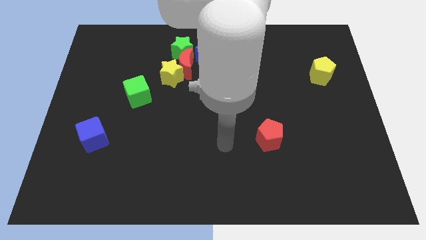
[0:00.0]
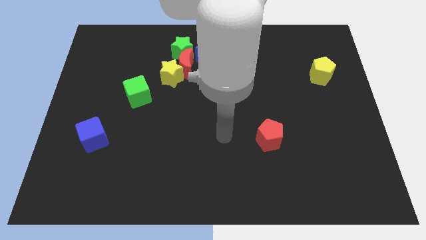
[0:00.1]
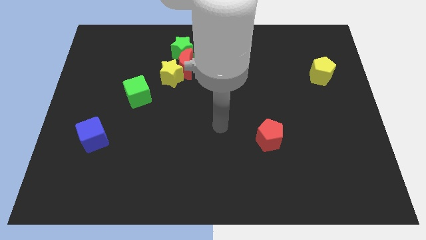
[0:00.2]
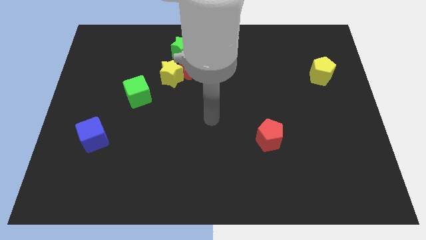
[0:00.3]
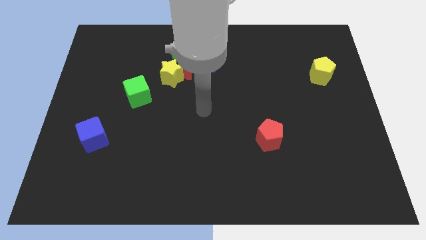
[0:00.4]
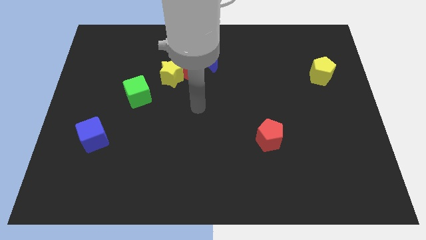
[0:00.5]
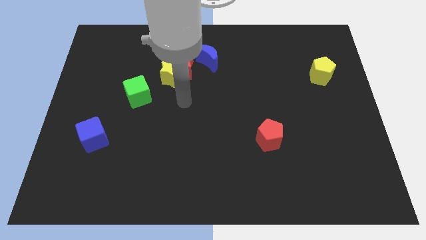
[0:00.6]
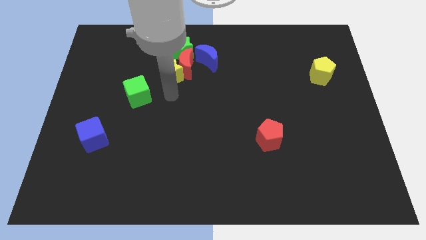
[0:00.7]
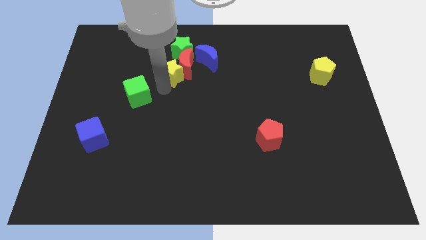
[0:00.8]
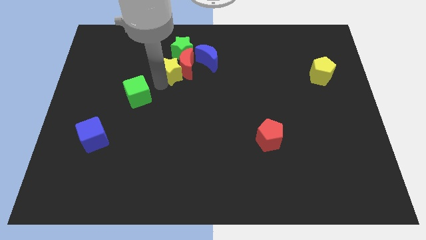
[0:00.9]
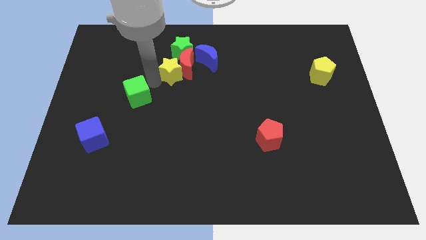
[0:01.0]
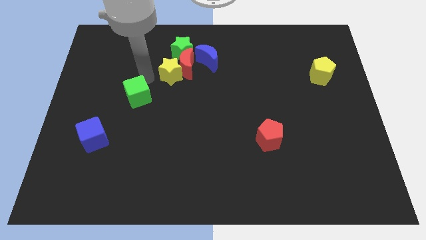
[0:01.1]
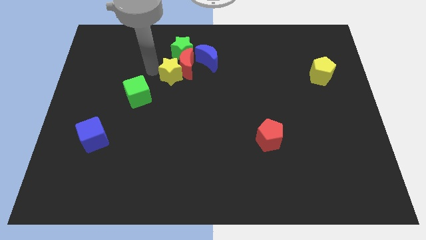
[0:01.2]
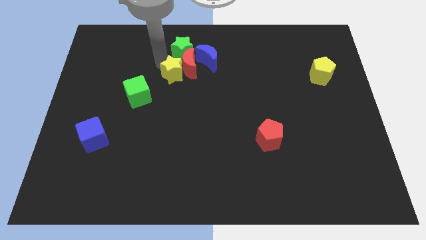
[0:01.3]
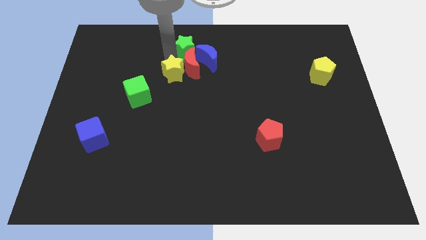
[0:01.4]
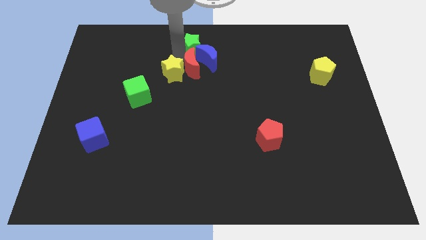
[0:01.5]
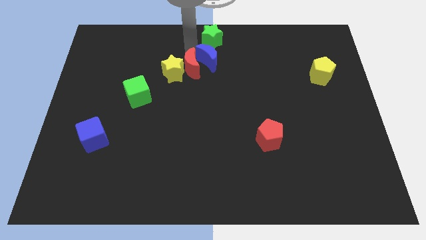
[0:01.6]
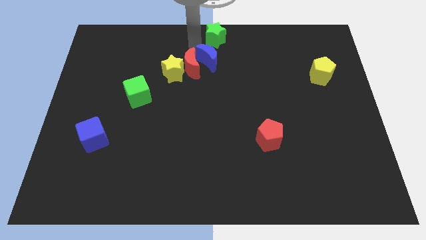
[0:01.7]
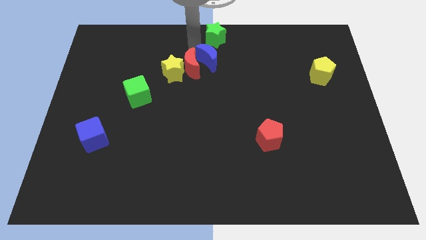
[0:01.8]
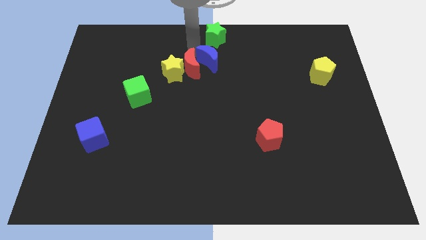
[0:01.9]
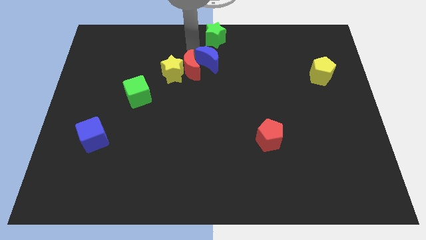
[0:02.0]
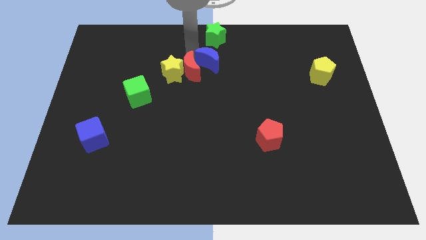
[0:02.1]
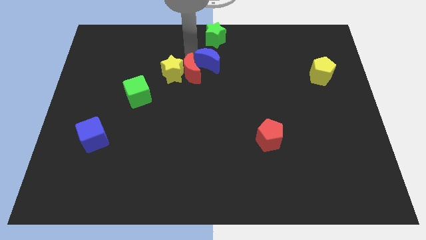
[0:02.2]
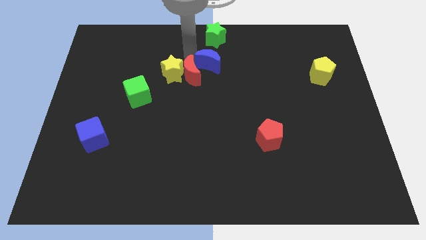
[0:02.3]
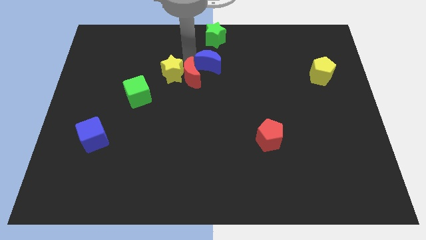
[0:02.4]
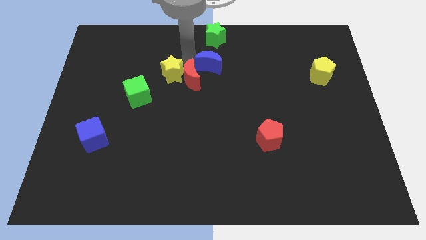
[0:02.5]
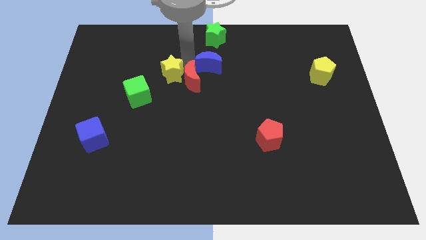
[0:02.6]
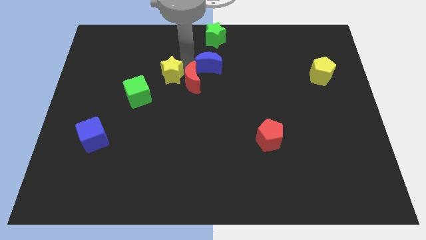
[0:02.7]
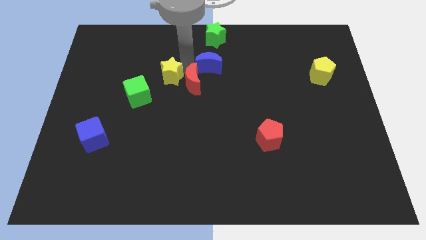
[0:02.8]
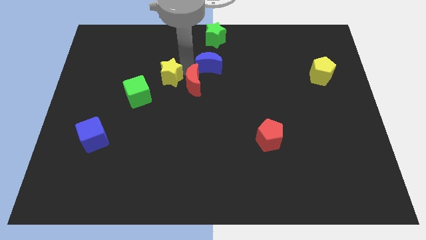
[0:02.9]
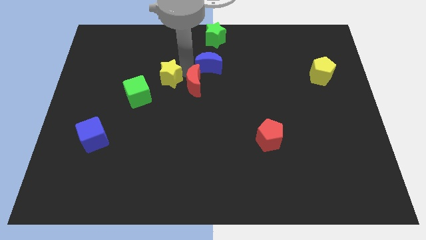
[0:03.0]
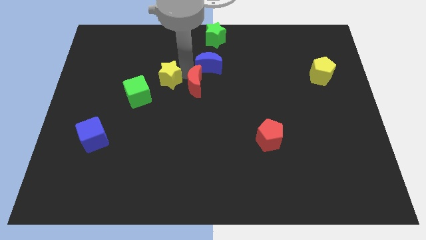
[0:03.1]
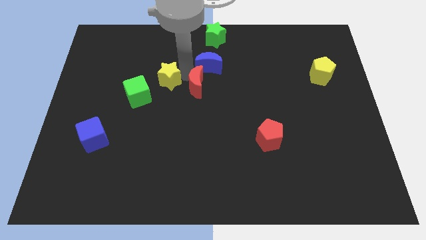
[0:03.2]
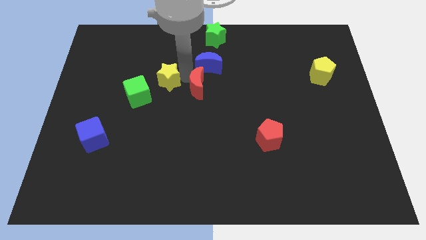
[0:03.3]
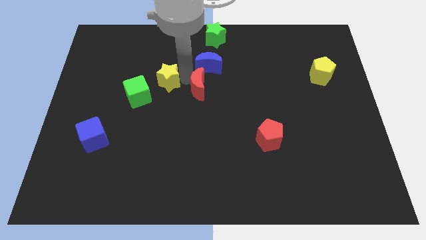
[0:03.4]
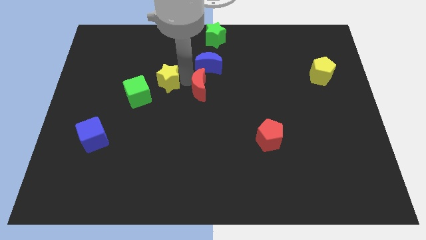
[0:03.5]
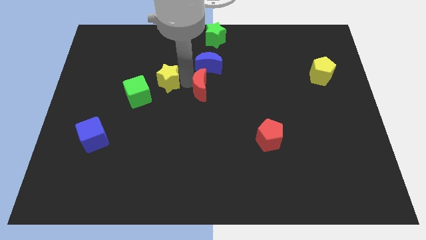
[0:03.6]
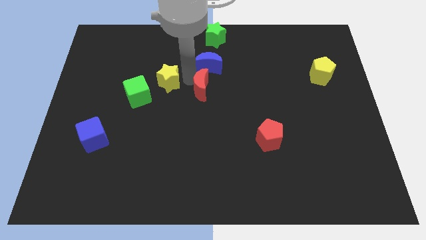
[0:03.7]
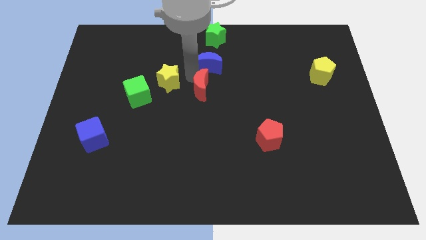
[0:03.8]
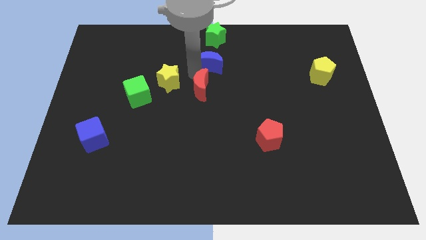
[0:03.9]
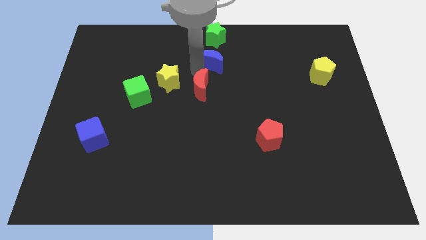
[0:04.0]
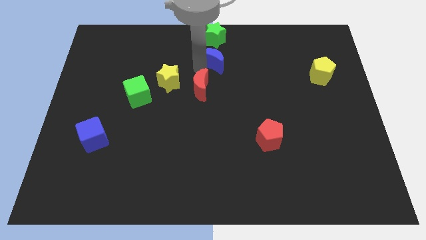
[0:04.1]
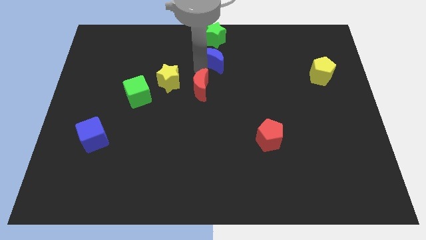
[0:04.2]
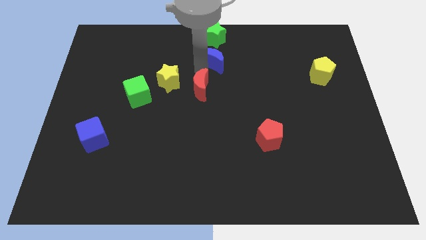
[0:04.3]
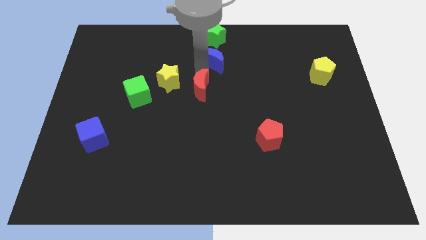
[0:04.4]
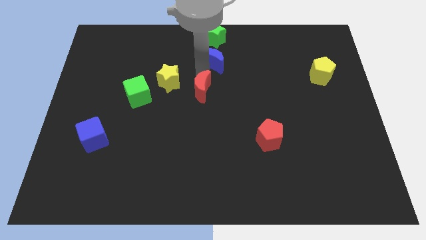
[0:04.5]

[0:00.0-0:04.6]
pull the red moon apart from the clump

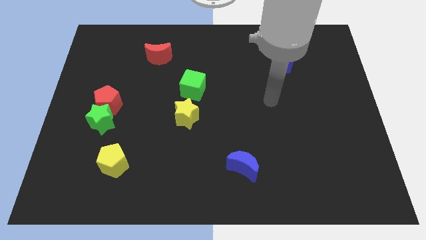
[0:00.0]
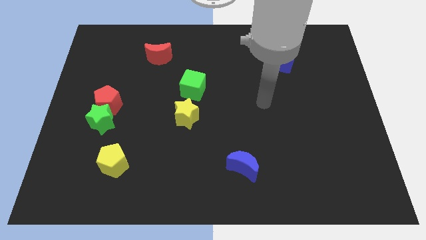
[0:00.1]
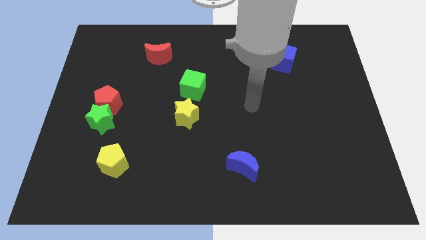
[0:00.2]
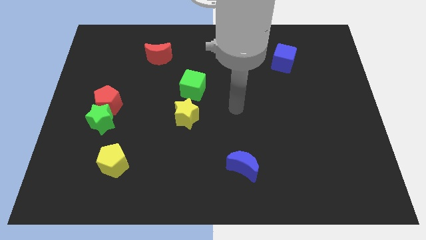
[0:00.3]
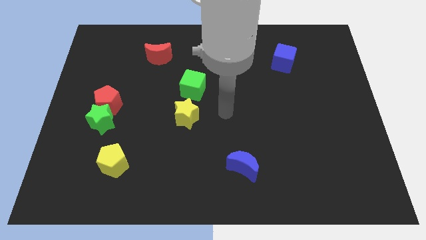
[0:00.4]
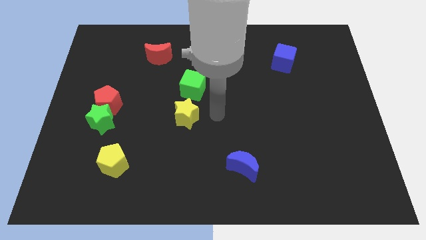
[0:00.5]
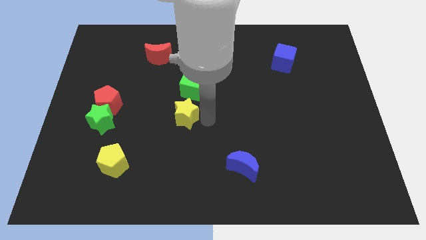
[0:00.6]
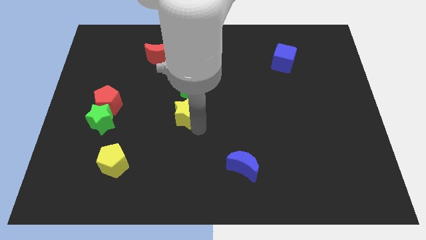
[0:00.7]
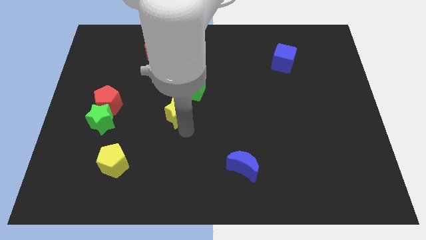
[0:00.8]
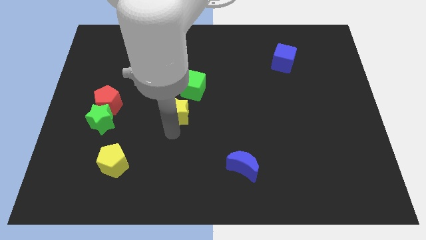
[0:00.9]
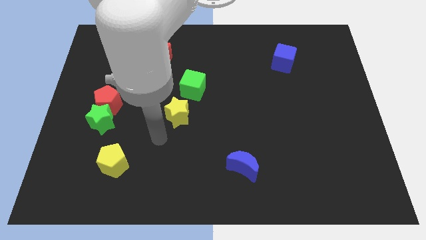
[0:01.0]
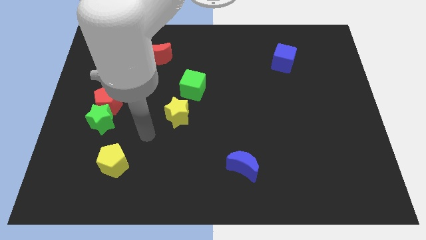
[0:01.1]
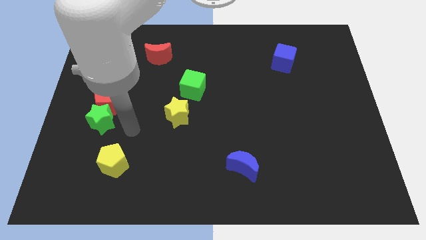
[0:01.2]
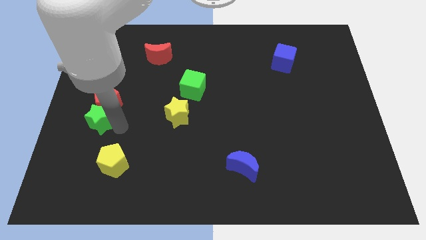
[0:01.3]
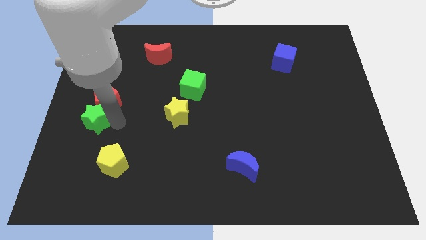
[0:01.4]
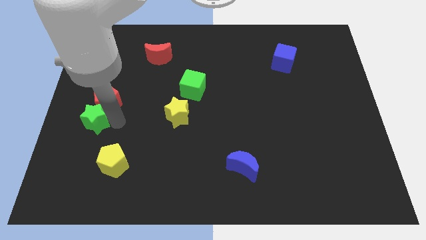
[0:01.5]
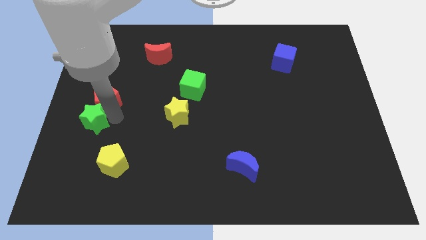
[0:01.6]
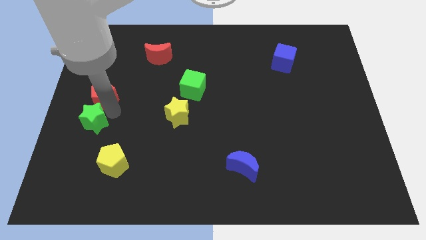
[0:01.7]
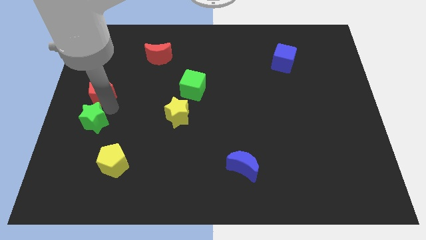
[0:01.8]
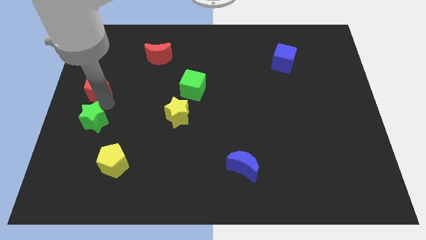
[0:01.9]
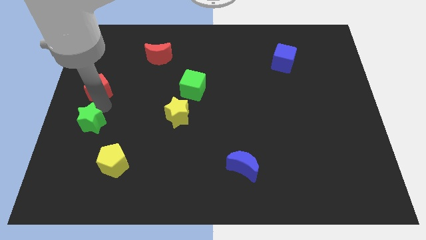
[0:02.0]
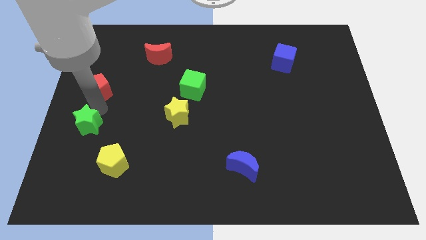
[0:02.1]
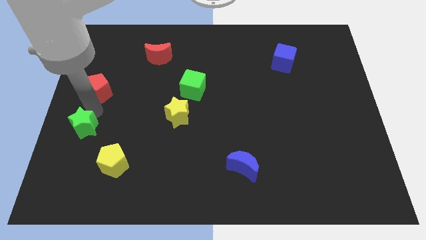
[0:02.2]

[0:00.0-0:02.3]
pull the red pentagon apart from the green star

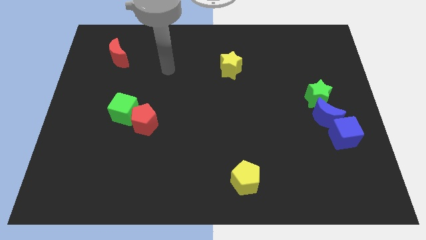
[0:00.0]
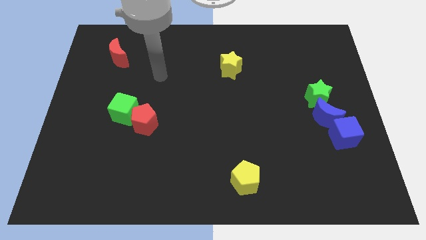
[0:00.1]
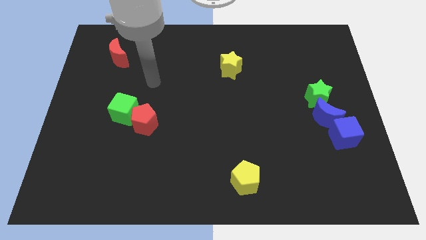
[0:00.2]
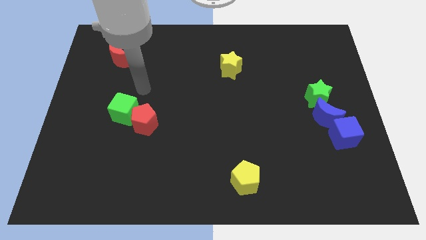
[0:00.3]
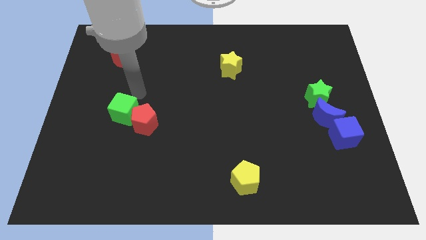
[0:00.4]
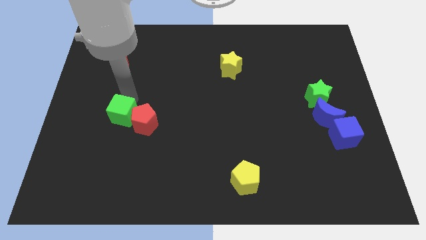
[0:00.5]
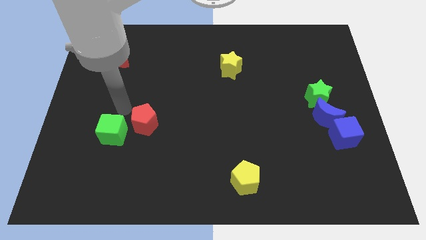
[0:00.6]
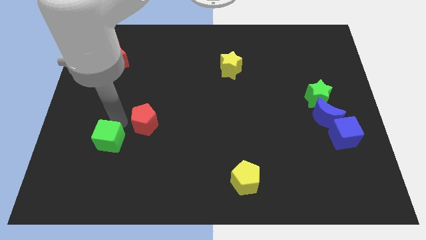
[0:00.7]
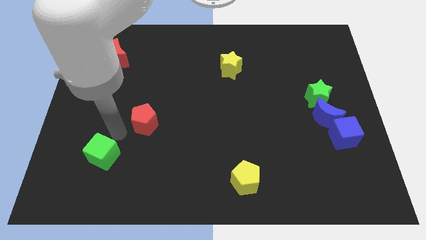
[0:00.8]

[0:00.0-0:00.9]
separate the red pentagon from the green cube

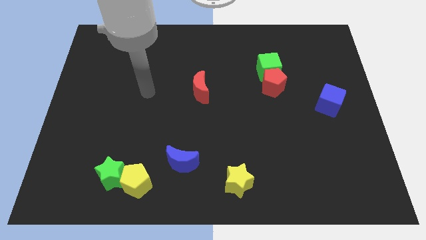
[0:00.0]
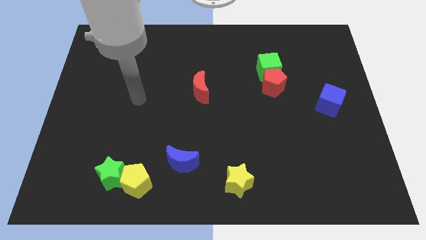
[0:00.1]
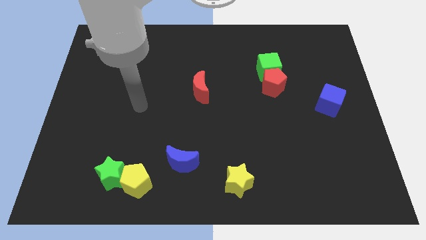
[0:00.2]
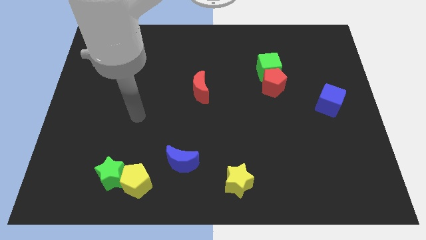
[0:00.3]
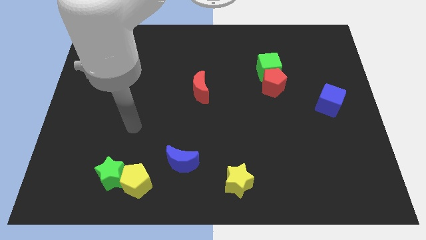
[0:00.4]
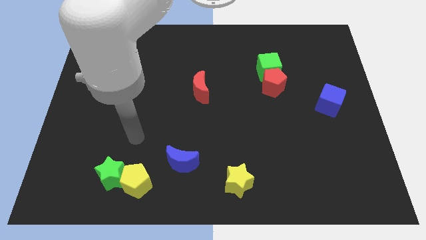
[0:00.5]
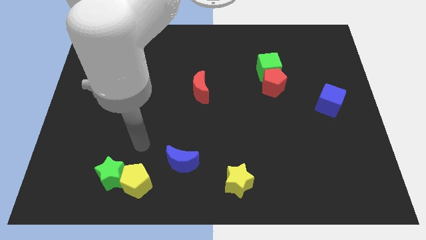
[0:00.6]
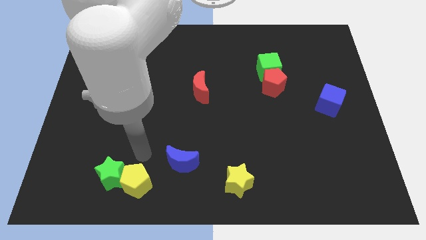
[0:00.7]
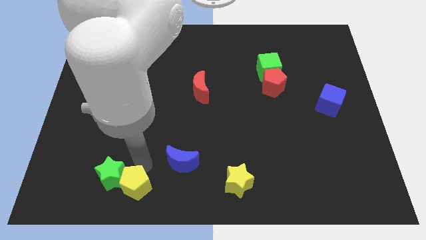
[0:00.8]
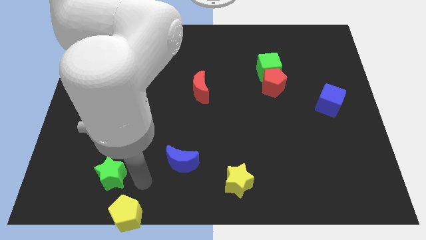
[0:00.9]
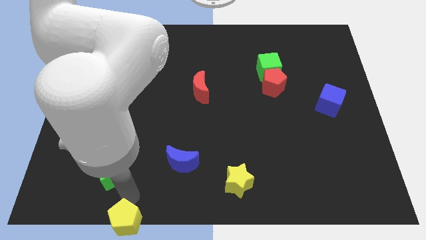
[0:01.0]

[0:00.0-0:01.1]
pull the green star apart from the yellow pentagon

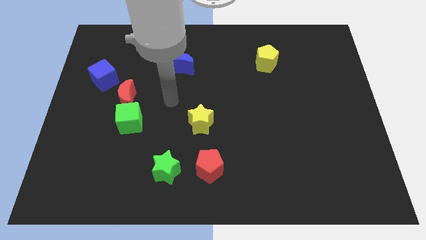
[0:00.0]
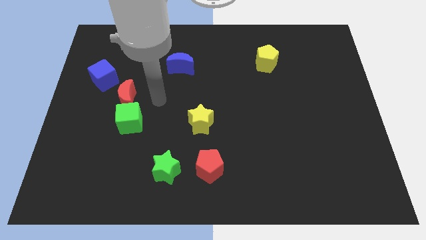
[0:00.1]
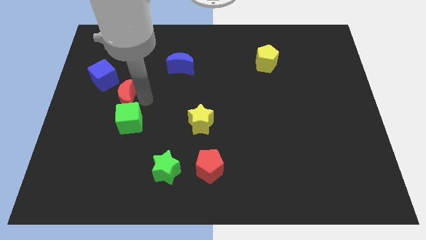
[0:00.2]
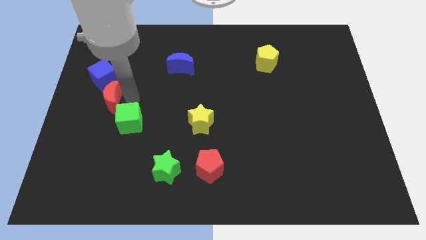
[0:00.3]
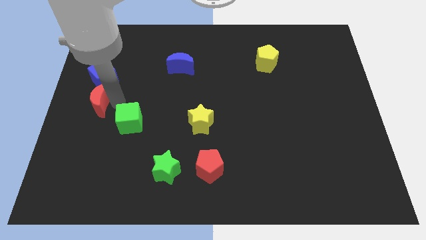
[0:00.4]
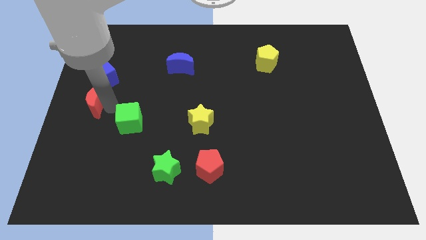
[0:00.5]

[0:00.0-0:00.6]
move the green cube away from the red moon
